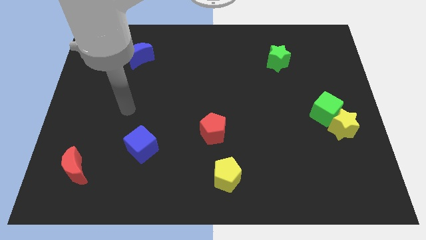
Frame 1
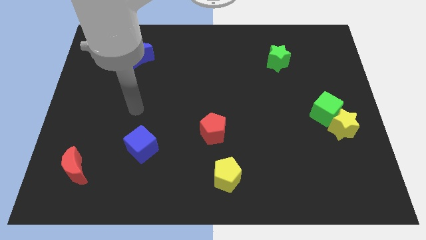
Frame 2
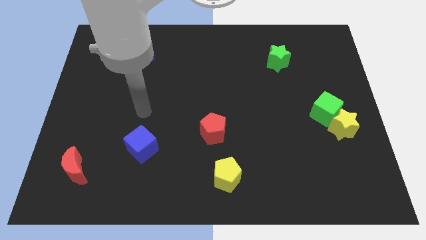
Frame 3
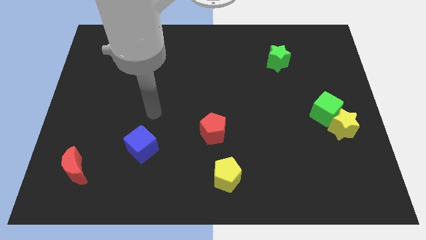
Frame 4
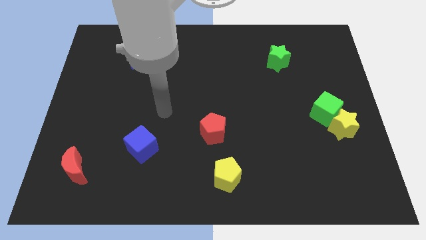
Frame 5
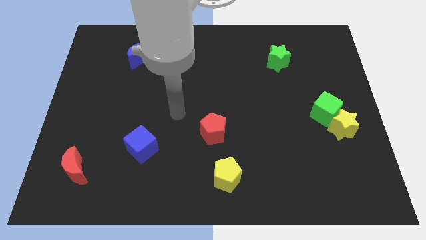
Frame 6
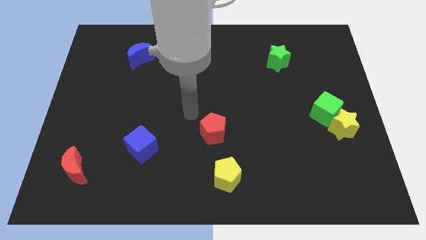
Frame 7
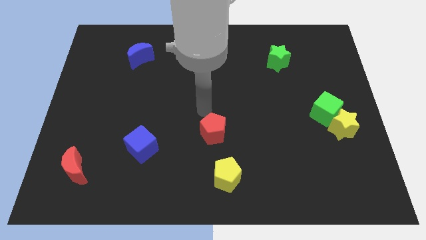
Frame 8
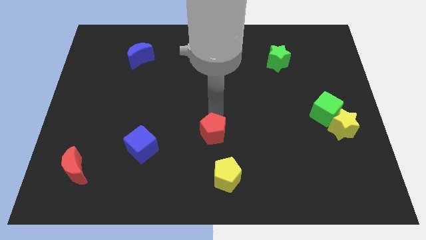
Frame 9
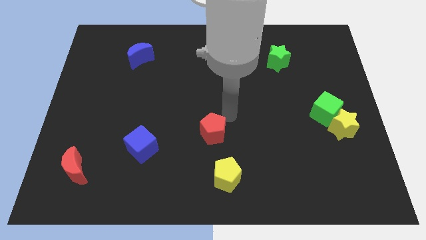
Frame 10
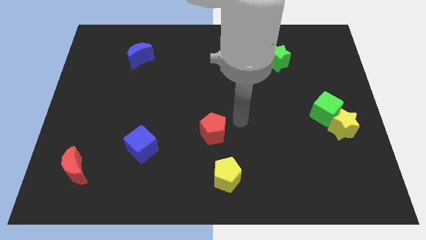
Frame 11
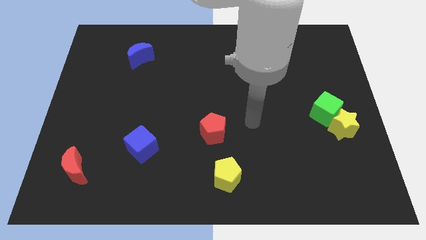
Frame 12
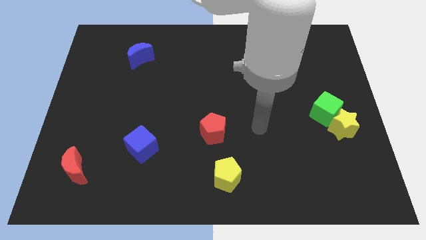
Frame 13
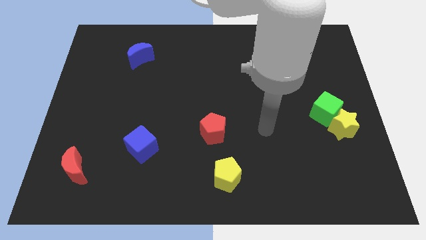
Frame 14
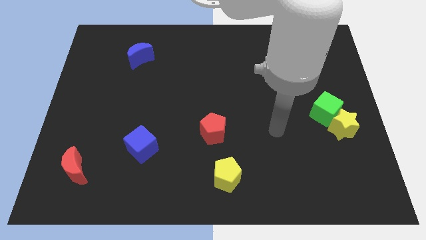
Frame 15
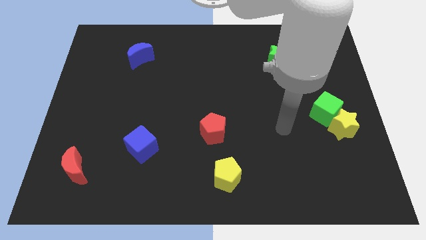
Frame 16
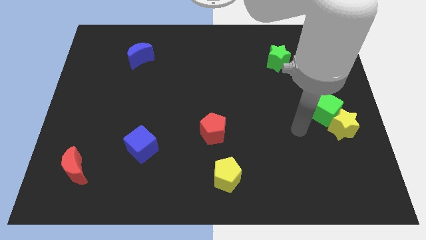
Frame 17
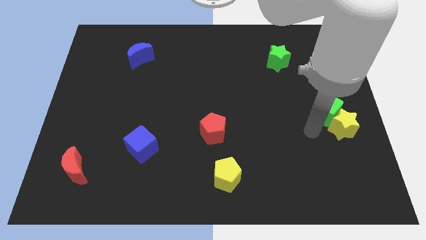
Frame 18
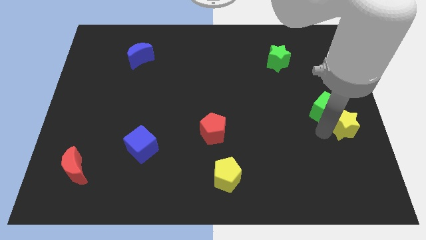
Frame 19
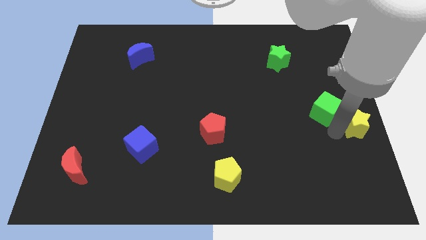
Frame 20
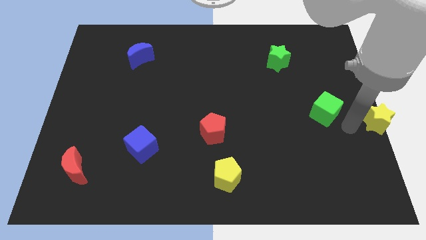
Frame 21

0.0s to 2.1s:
move the green cube away from the yellow star

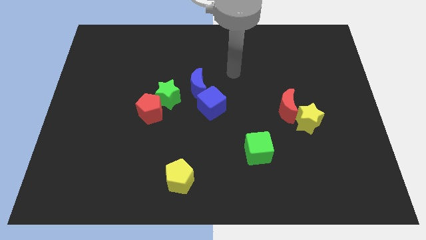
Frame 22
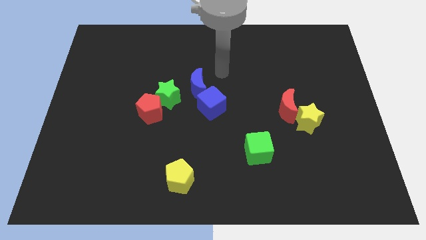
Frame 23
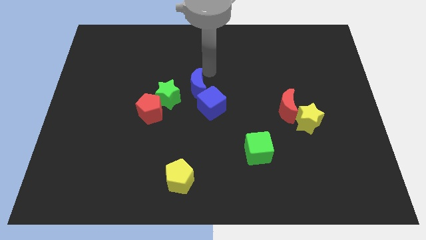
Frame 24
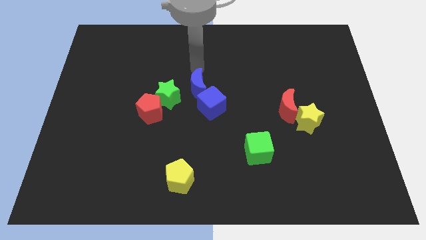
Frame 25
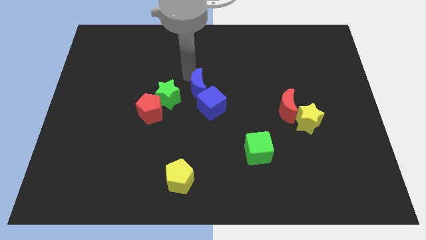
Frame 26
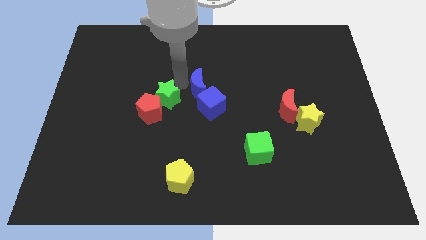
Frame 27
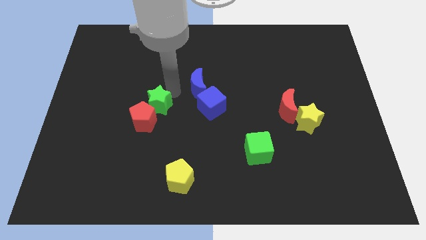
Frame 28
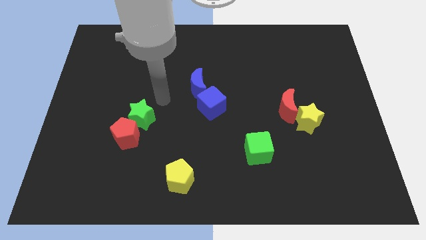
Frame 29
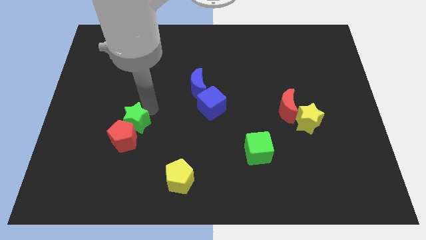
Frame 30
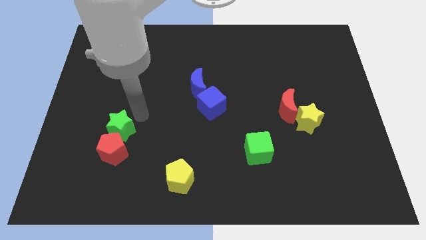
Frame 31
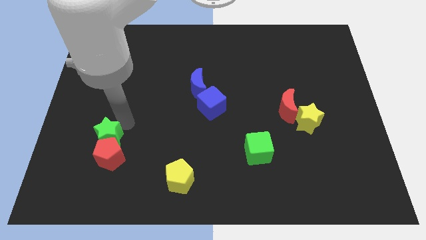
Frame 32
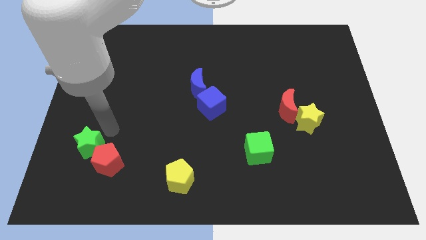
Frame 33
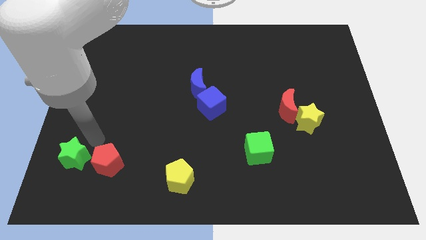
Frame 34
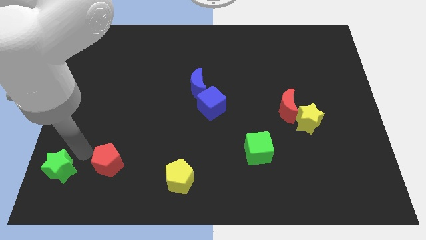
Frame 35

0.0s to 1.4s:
separate the red pentagon from the green star

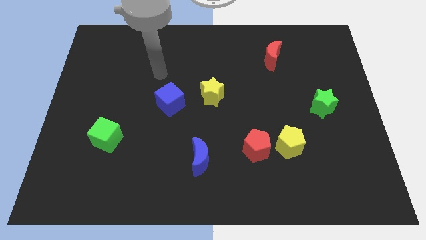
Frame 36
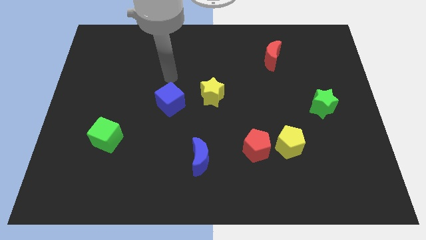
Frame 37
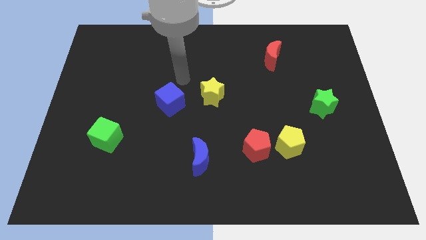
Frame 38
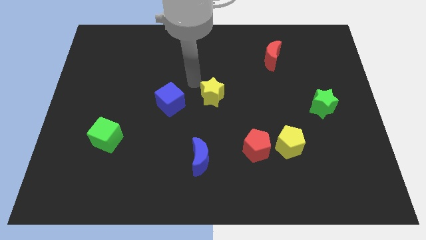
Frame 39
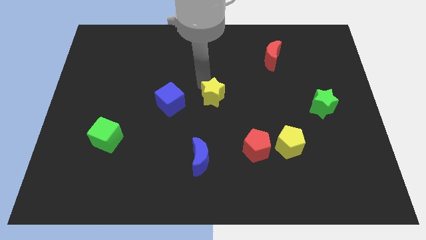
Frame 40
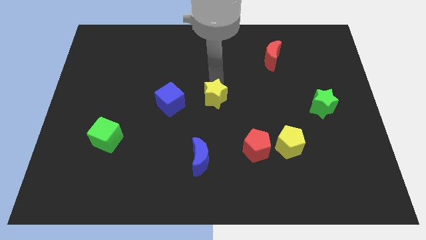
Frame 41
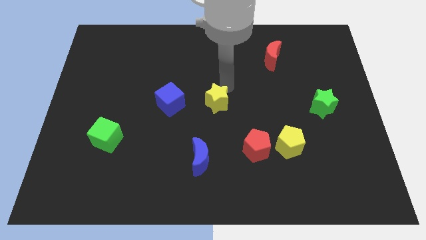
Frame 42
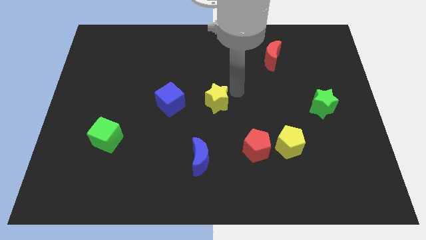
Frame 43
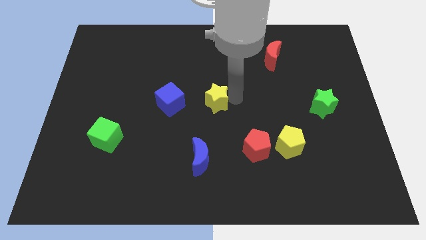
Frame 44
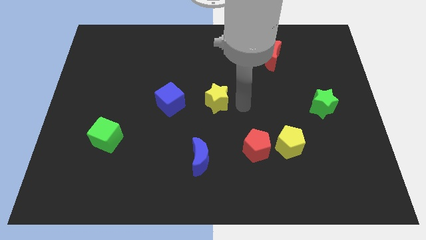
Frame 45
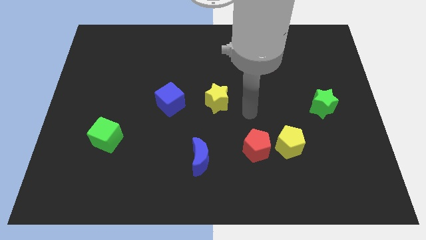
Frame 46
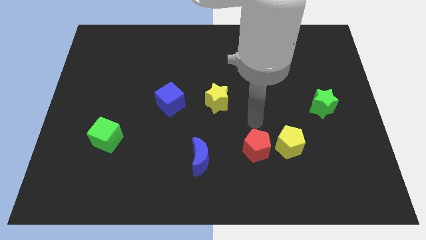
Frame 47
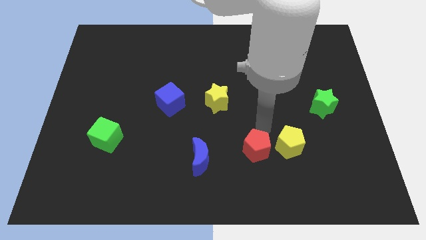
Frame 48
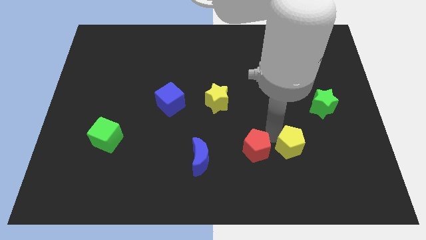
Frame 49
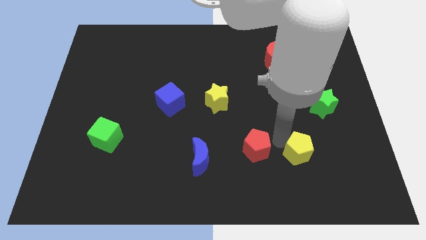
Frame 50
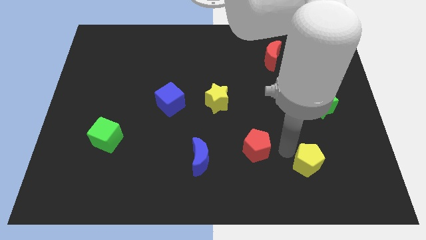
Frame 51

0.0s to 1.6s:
pull the red pentagon apart from the yellow pentagon

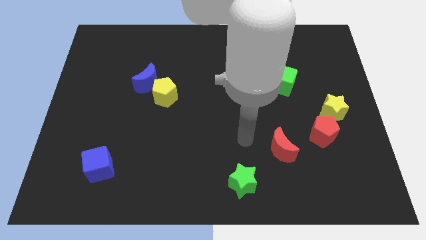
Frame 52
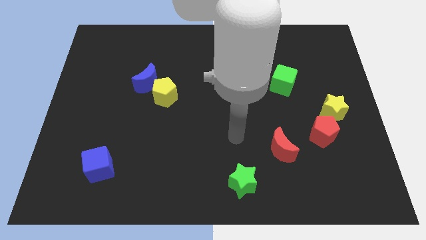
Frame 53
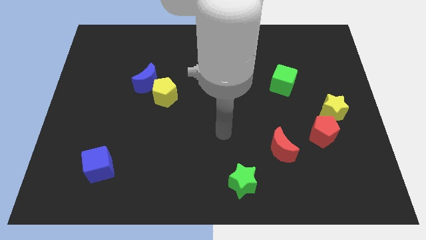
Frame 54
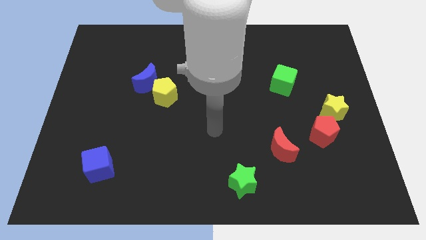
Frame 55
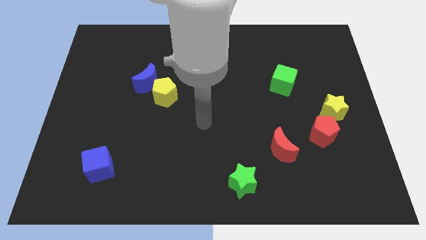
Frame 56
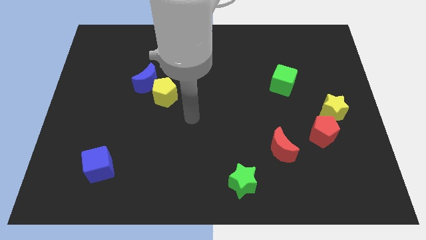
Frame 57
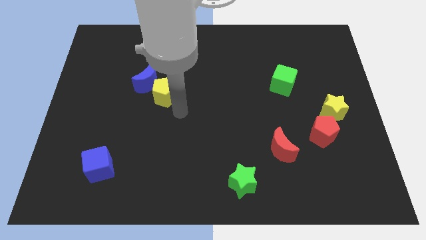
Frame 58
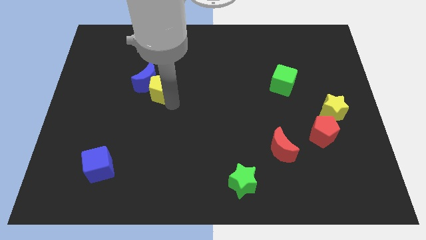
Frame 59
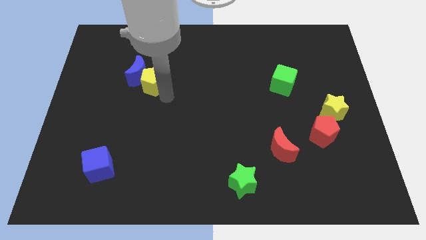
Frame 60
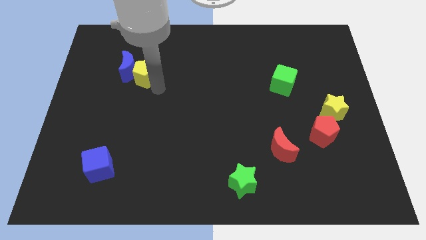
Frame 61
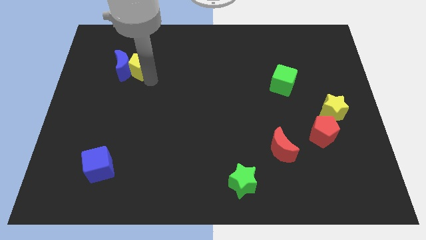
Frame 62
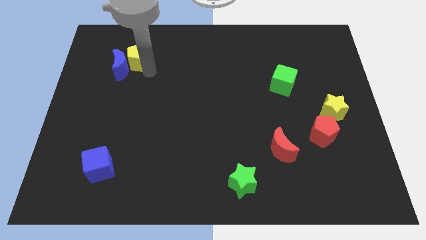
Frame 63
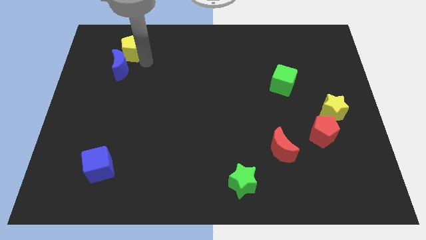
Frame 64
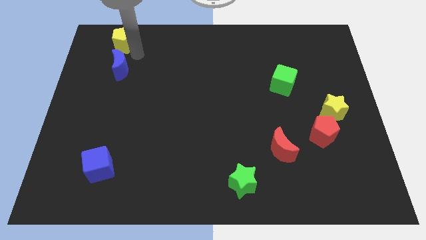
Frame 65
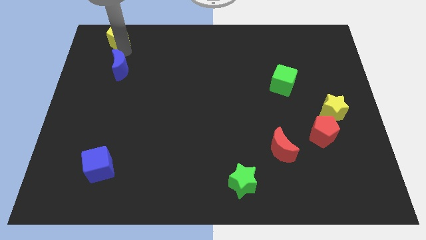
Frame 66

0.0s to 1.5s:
move the blue moon away from the yellow pentagon

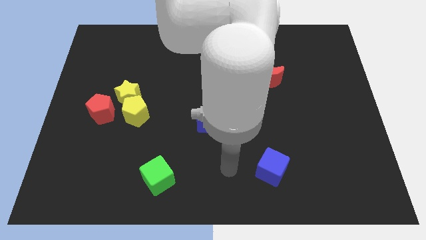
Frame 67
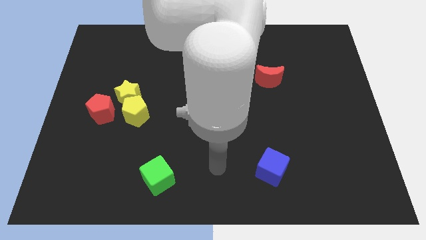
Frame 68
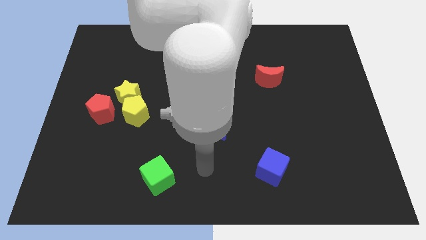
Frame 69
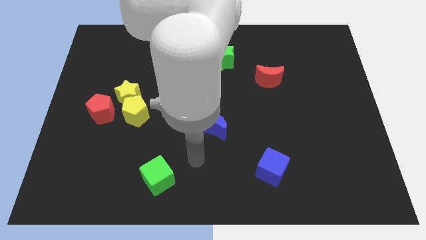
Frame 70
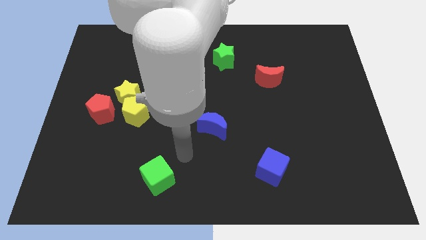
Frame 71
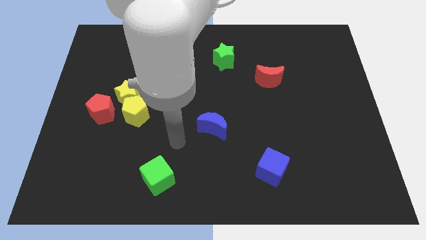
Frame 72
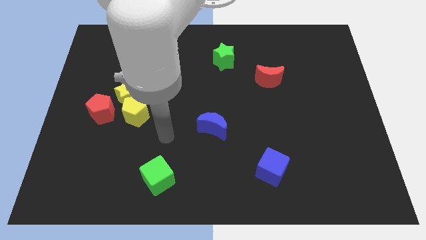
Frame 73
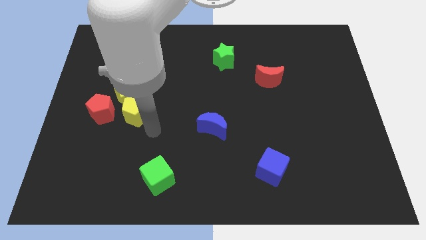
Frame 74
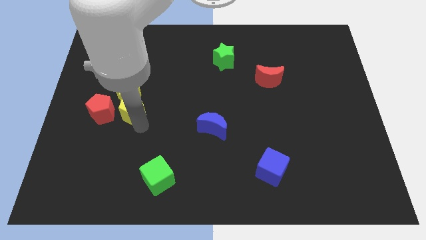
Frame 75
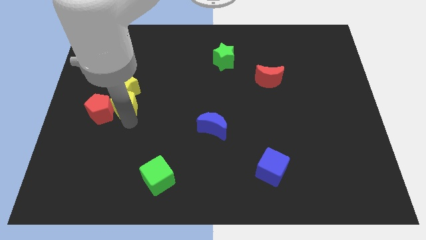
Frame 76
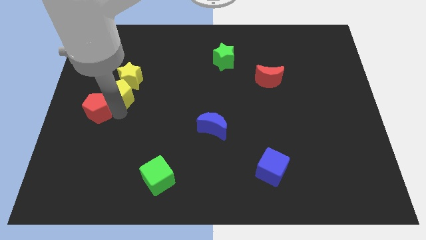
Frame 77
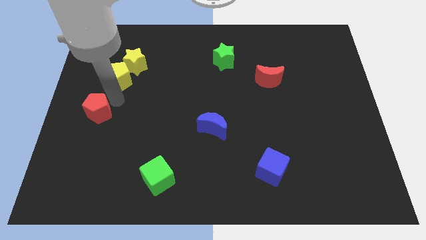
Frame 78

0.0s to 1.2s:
separate the yellow star from the yellow pentagon and red pentagon

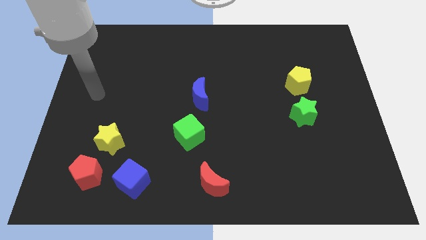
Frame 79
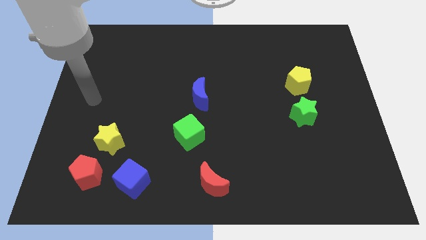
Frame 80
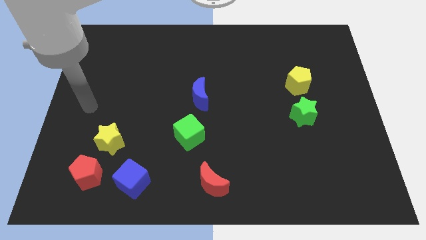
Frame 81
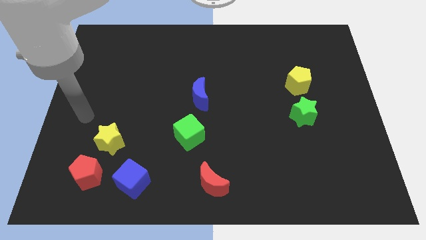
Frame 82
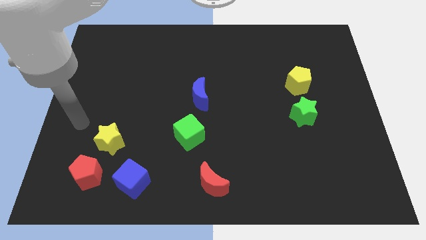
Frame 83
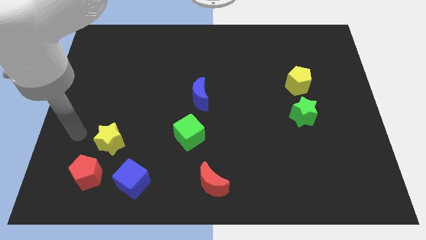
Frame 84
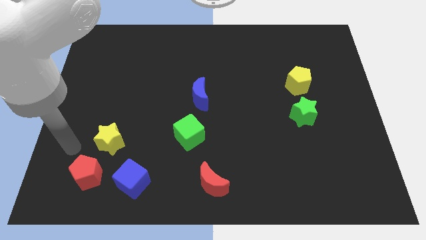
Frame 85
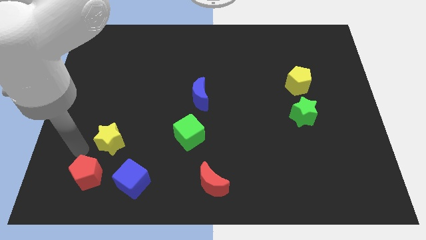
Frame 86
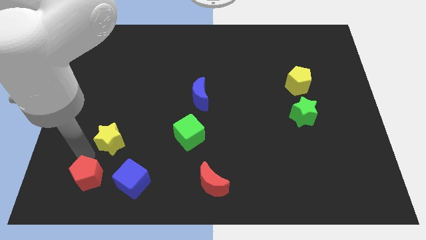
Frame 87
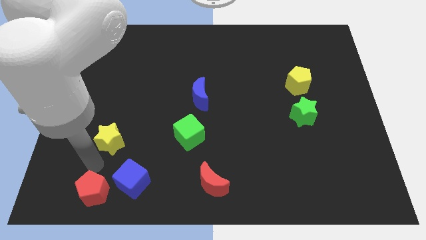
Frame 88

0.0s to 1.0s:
separate the yellow star from the red pentagon

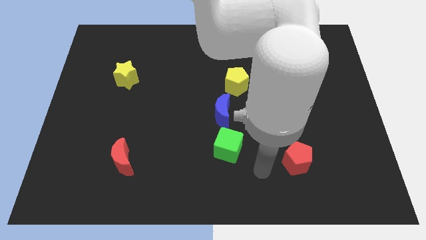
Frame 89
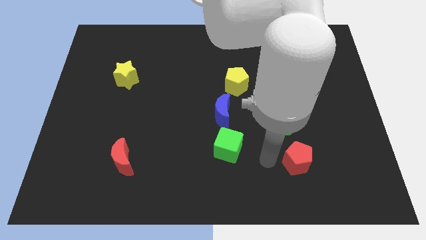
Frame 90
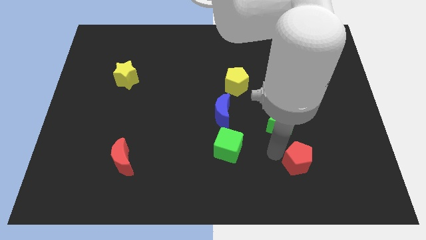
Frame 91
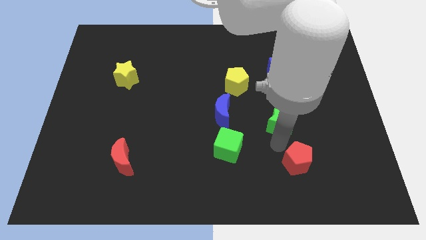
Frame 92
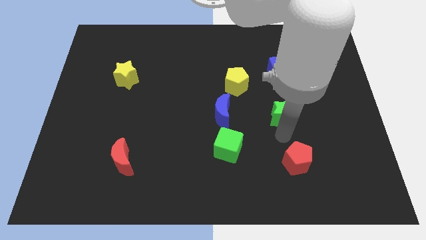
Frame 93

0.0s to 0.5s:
pull the red pentagon apart from the green star
